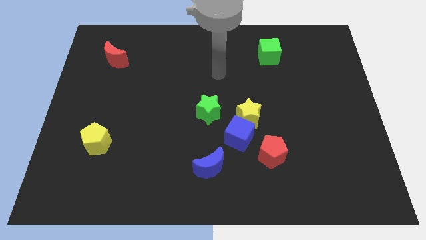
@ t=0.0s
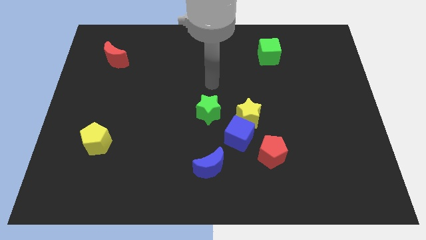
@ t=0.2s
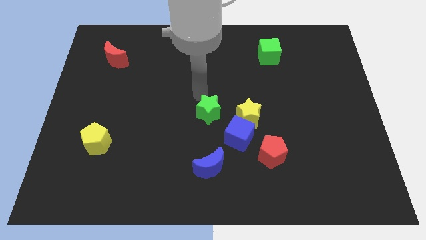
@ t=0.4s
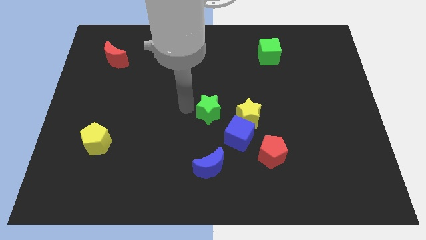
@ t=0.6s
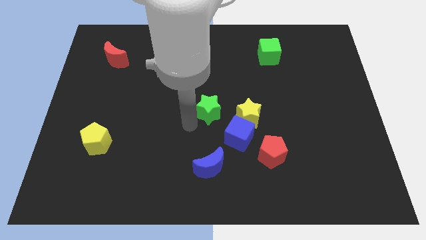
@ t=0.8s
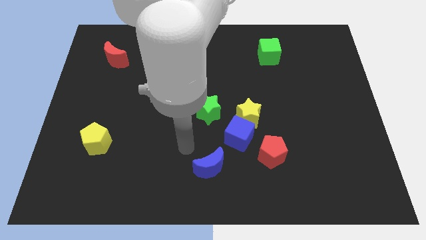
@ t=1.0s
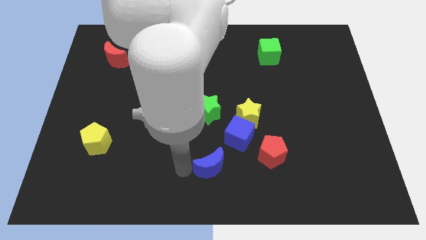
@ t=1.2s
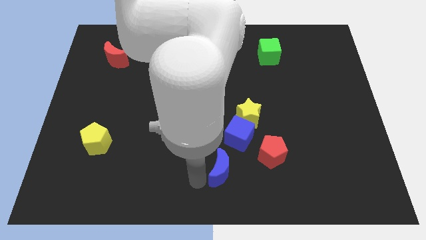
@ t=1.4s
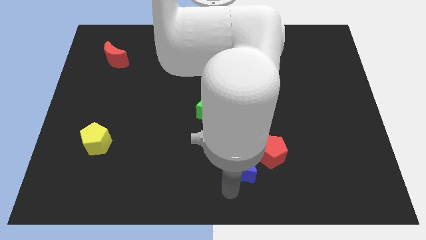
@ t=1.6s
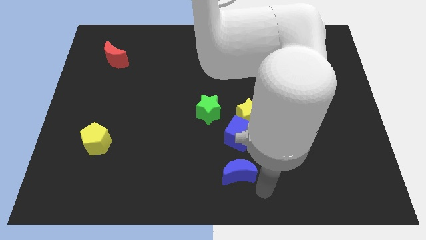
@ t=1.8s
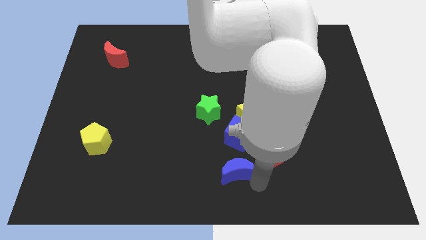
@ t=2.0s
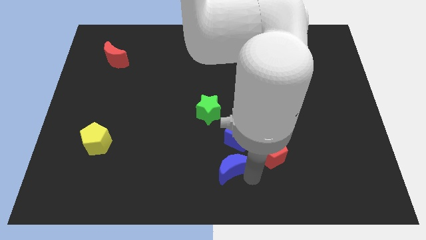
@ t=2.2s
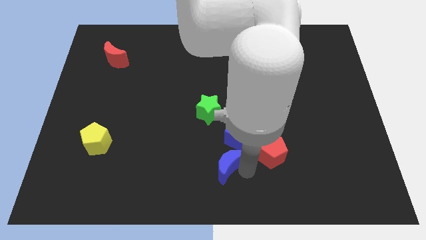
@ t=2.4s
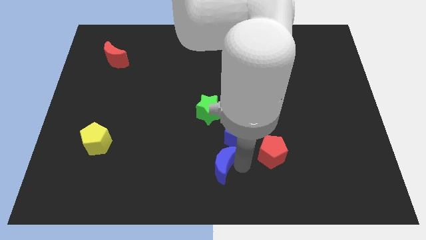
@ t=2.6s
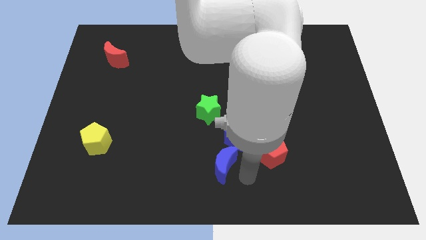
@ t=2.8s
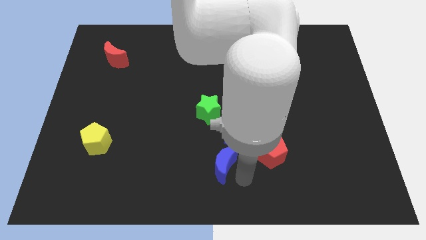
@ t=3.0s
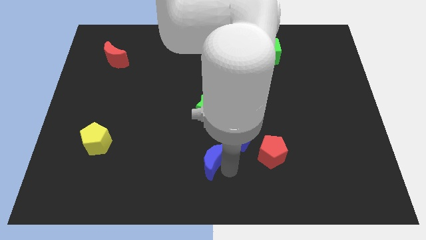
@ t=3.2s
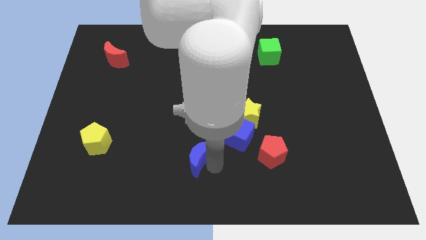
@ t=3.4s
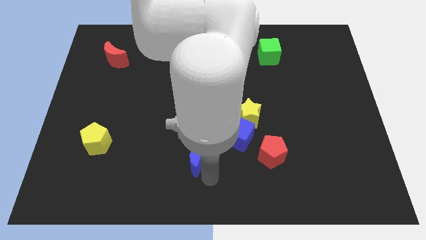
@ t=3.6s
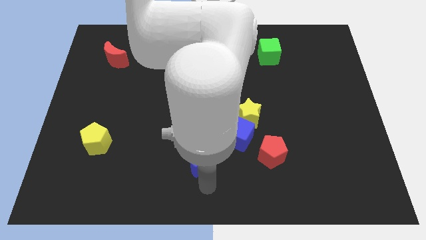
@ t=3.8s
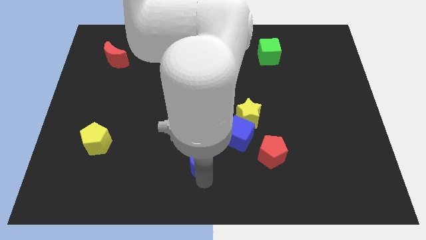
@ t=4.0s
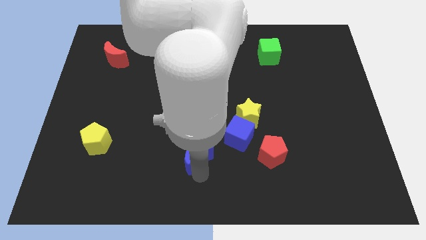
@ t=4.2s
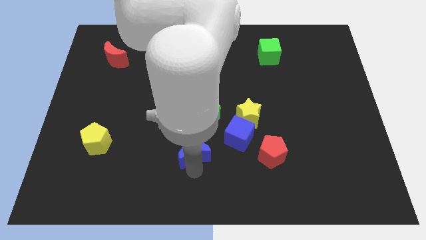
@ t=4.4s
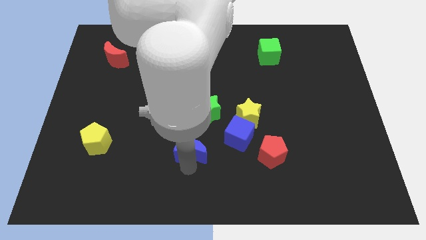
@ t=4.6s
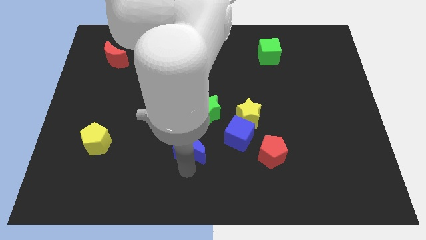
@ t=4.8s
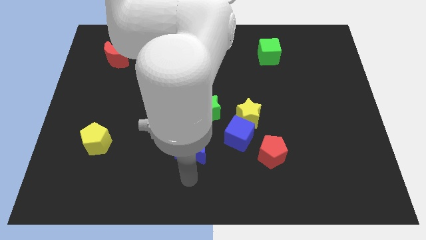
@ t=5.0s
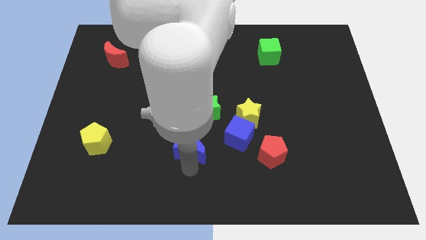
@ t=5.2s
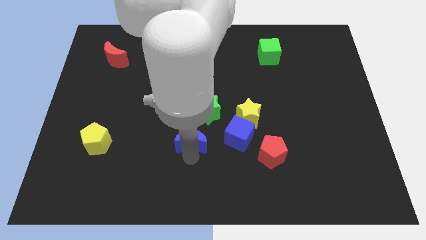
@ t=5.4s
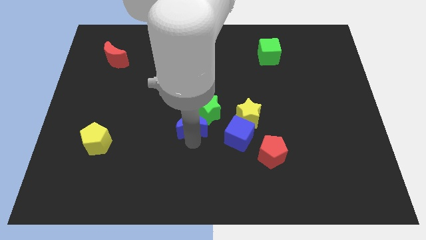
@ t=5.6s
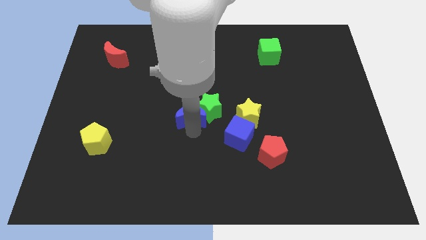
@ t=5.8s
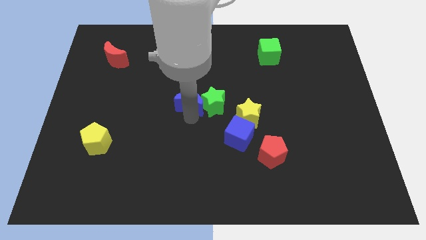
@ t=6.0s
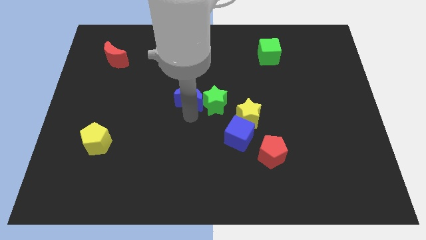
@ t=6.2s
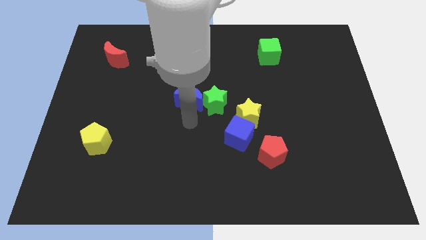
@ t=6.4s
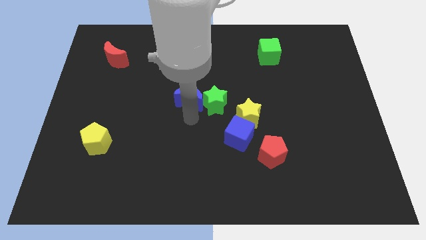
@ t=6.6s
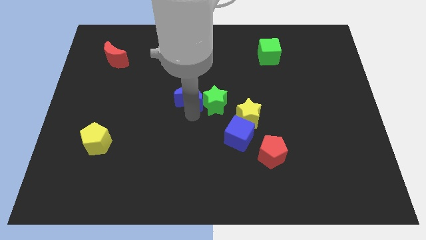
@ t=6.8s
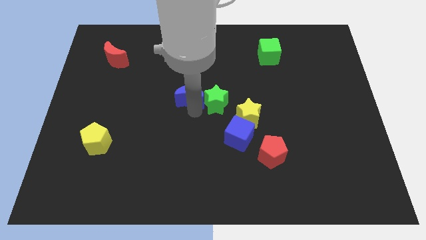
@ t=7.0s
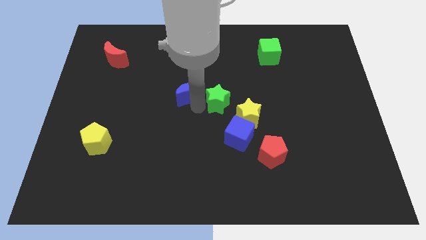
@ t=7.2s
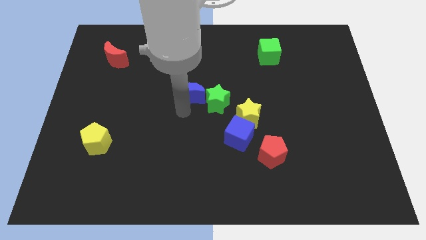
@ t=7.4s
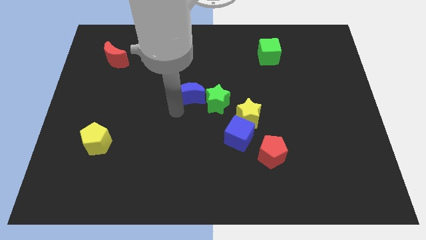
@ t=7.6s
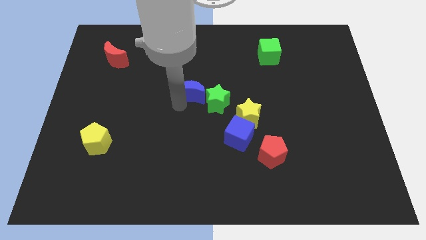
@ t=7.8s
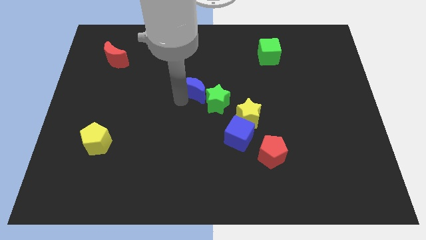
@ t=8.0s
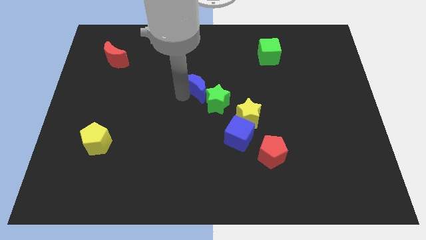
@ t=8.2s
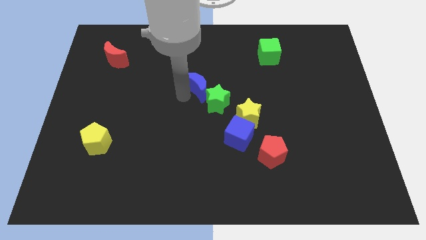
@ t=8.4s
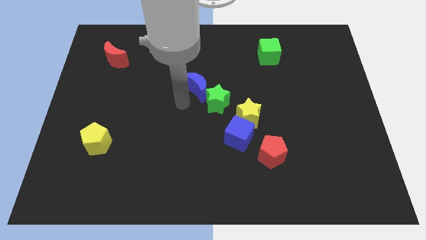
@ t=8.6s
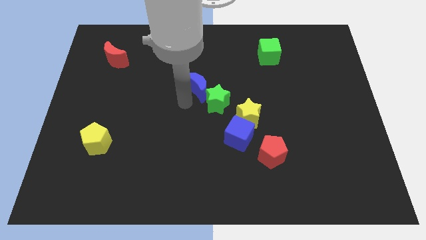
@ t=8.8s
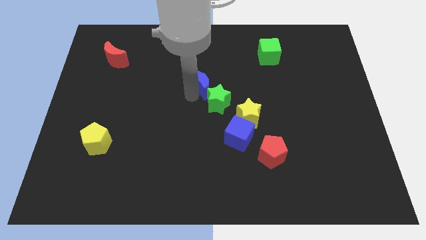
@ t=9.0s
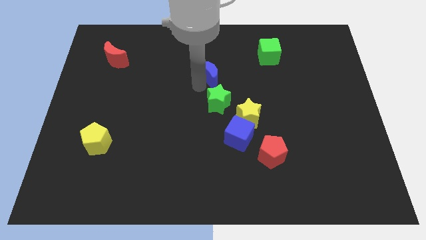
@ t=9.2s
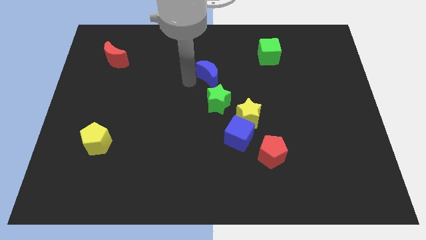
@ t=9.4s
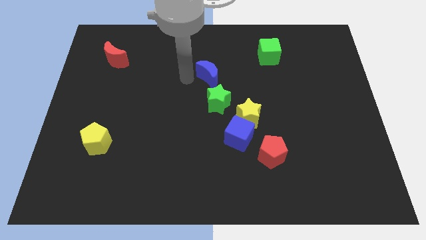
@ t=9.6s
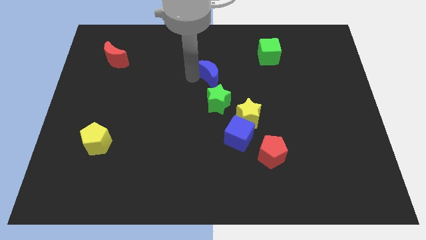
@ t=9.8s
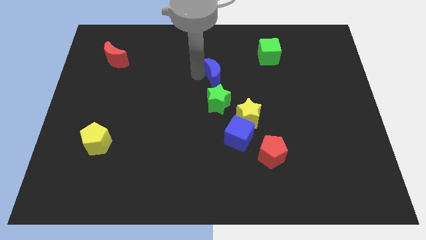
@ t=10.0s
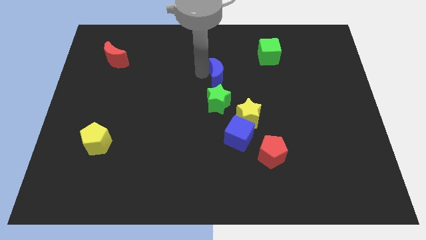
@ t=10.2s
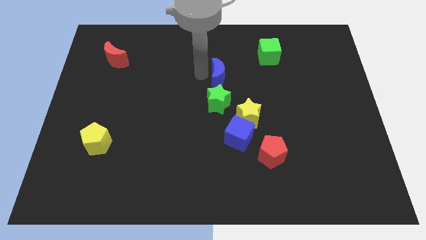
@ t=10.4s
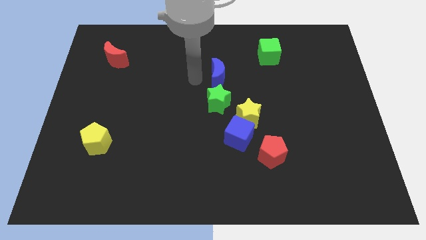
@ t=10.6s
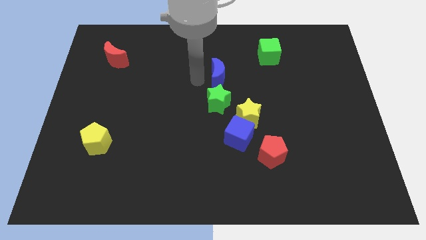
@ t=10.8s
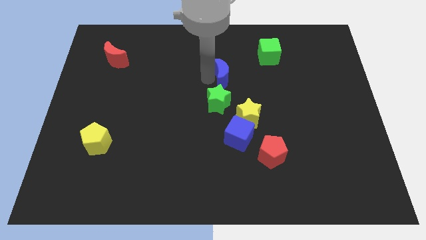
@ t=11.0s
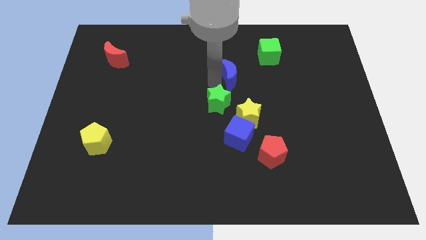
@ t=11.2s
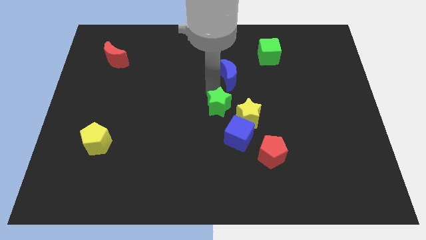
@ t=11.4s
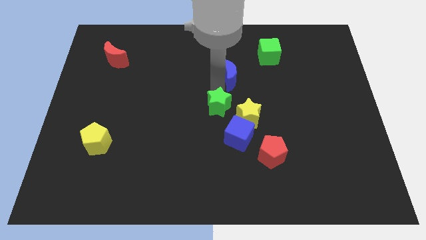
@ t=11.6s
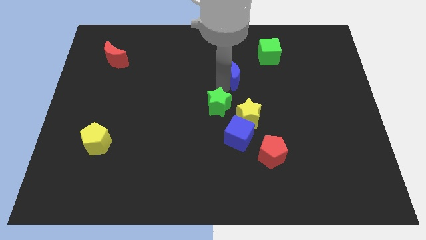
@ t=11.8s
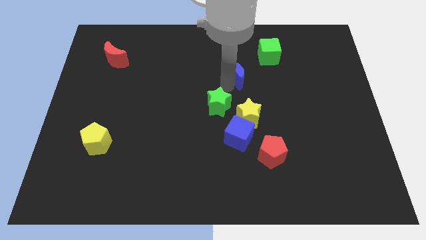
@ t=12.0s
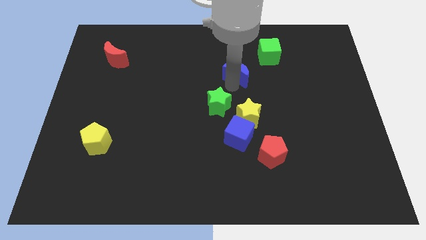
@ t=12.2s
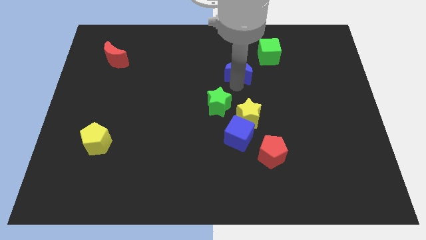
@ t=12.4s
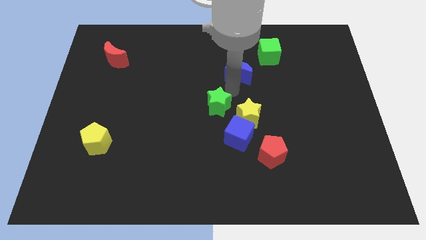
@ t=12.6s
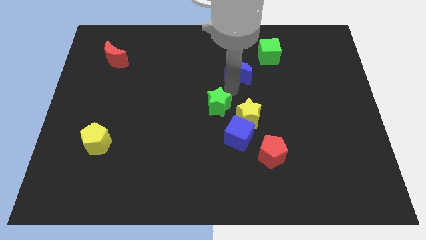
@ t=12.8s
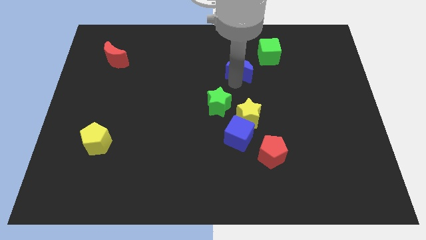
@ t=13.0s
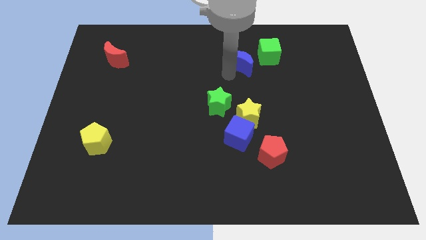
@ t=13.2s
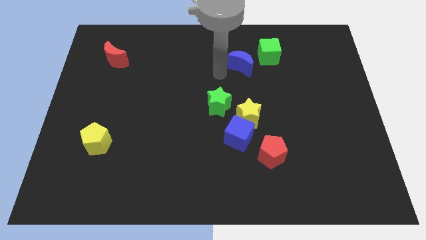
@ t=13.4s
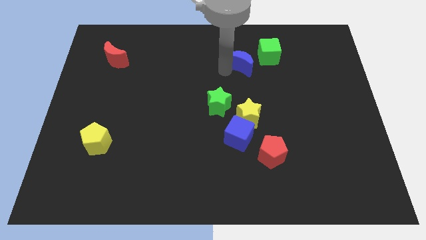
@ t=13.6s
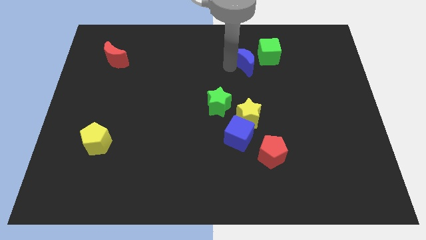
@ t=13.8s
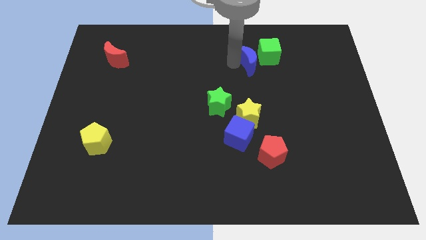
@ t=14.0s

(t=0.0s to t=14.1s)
move the blue moon close to the green cube
